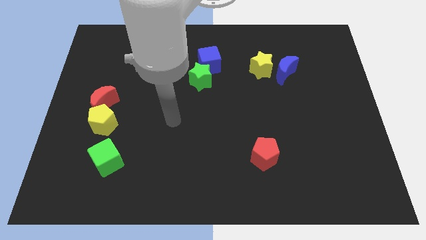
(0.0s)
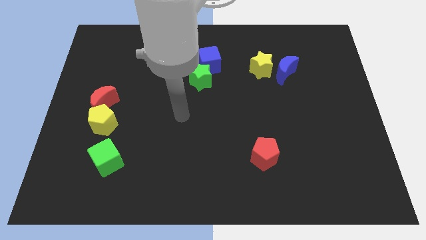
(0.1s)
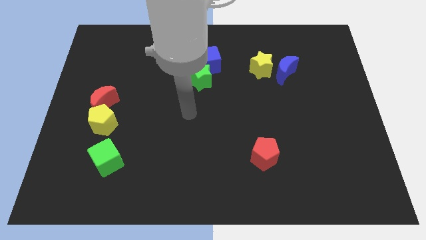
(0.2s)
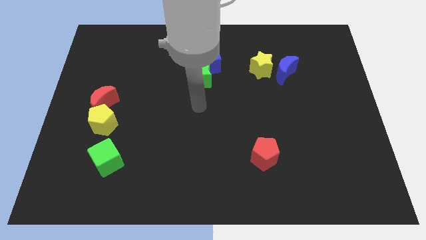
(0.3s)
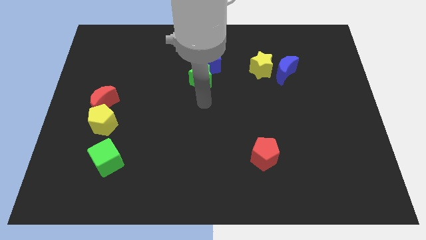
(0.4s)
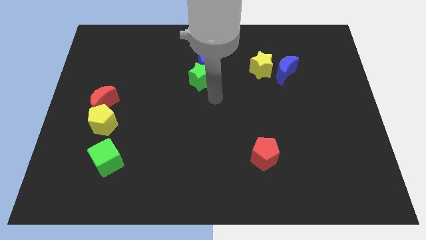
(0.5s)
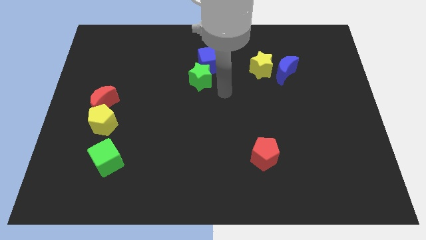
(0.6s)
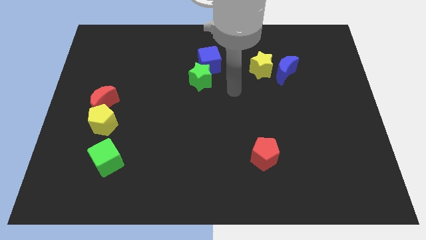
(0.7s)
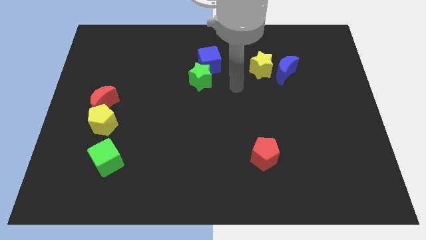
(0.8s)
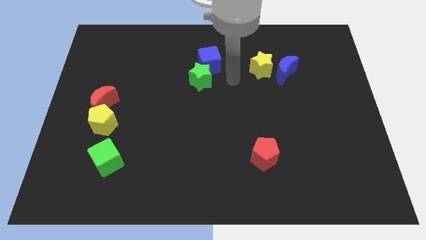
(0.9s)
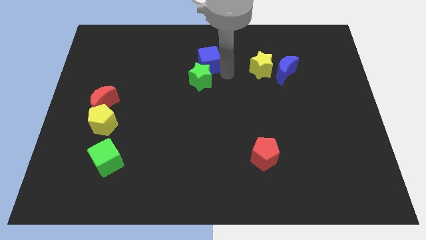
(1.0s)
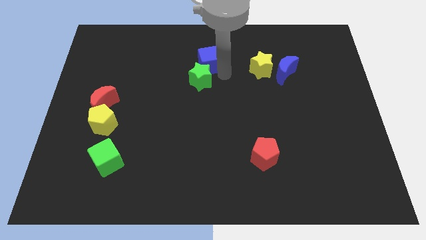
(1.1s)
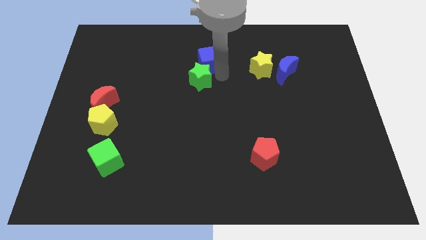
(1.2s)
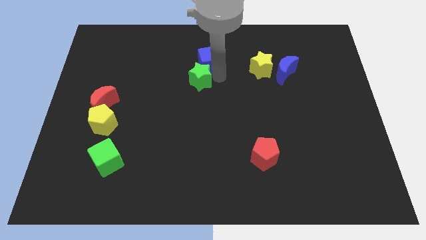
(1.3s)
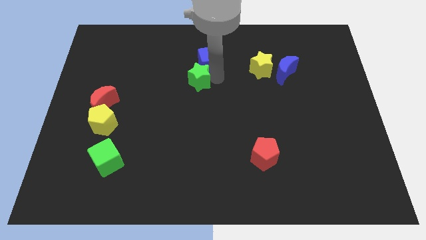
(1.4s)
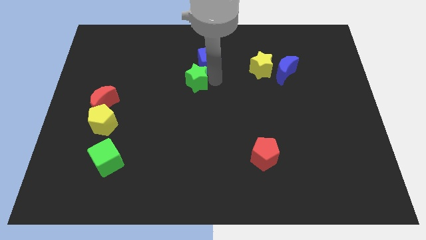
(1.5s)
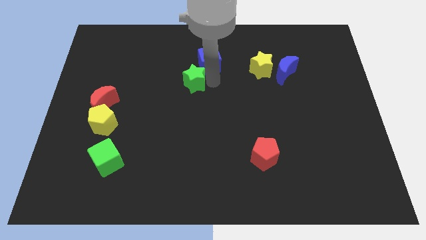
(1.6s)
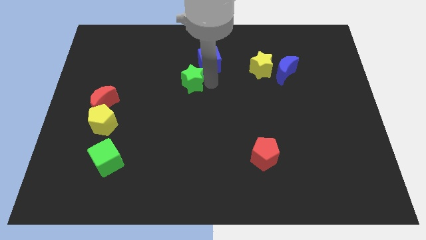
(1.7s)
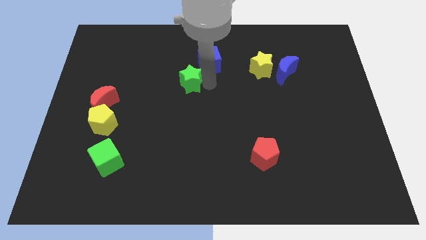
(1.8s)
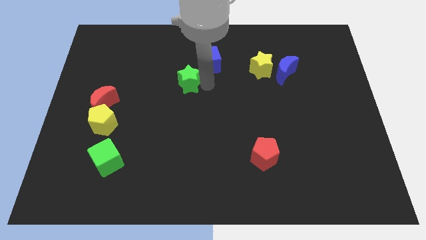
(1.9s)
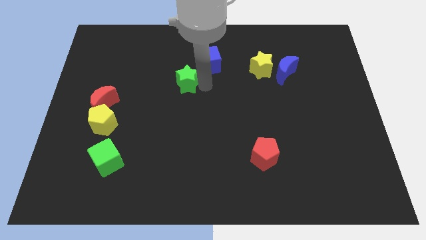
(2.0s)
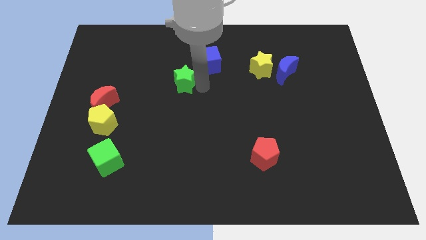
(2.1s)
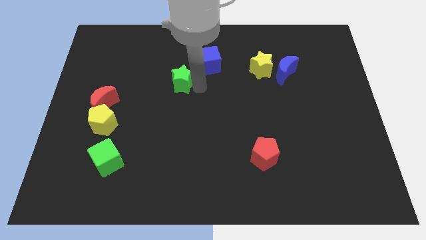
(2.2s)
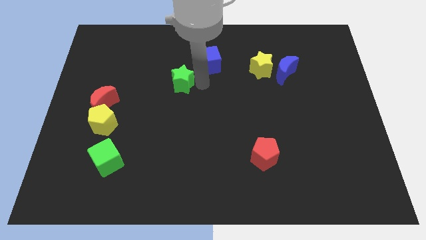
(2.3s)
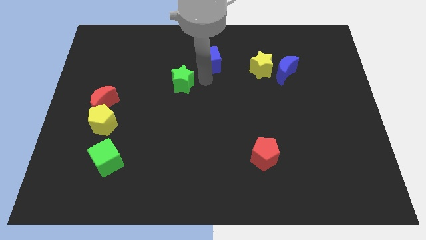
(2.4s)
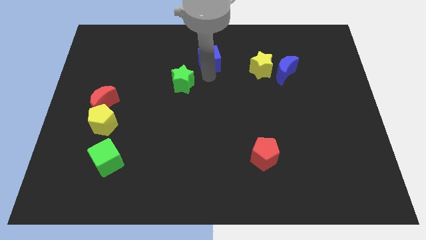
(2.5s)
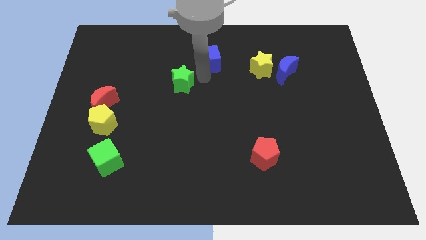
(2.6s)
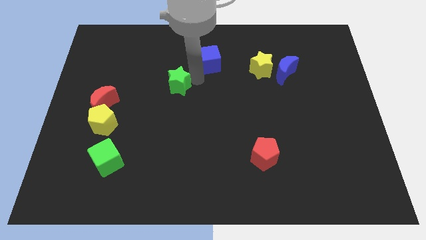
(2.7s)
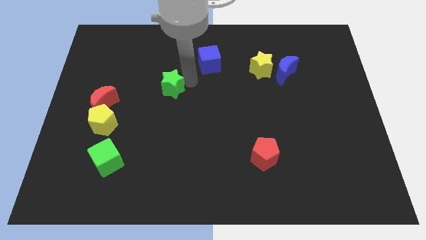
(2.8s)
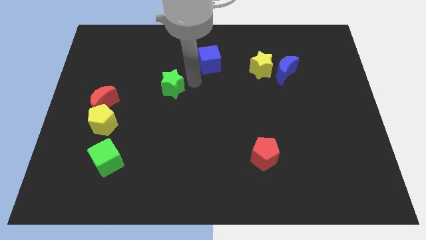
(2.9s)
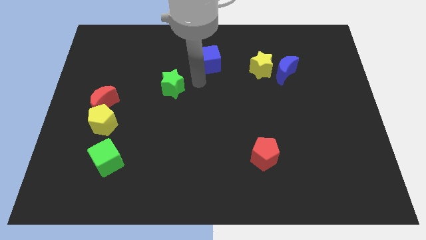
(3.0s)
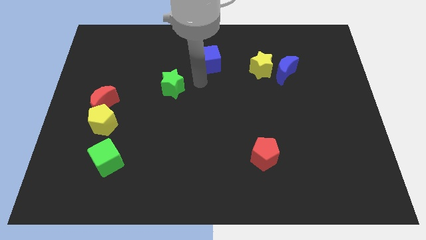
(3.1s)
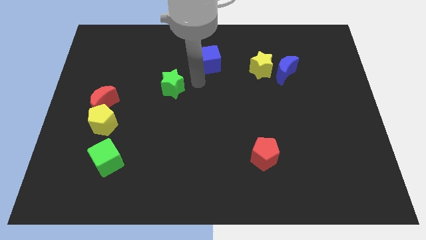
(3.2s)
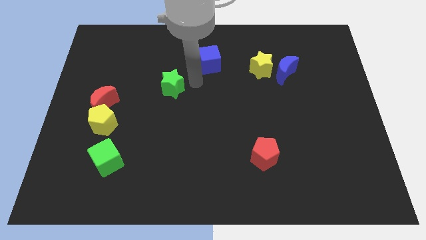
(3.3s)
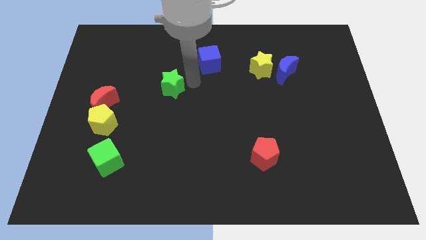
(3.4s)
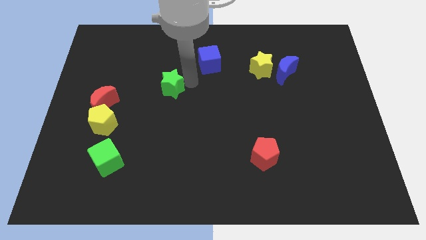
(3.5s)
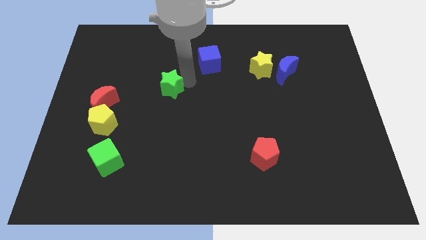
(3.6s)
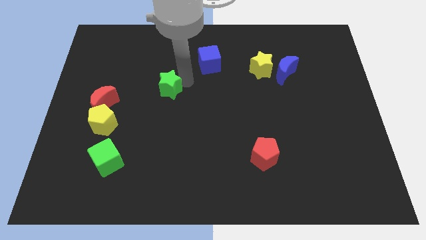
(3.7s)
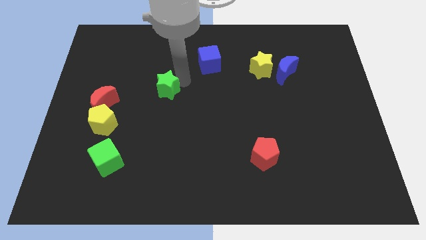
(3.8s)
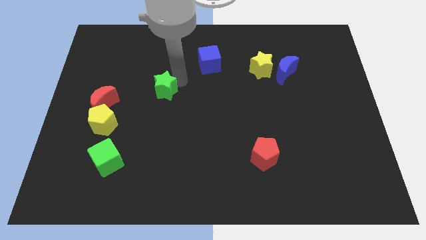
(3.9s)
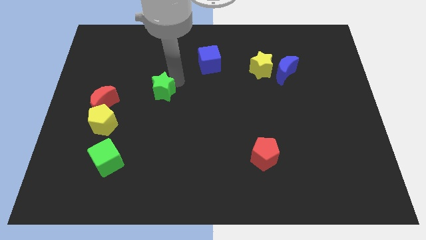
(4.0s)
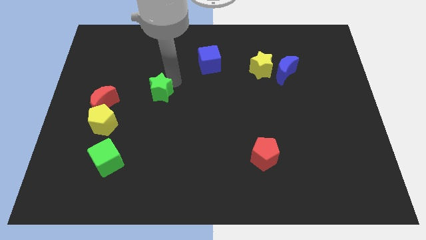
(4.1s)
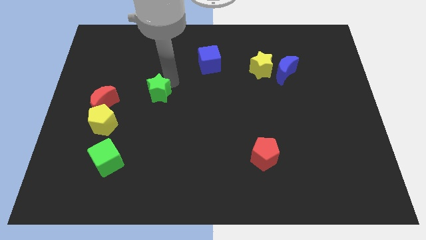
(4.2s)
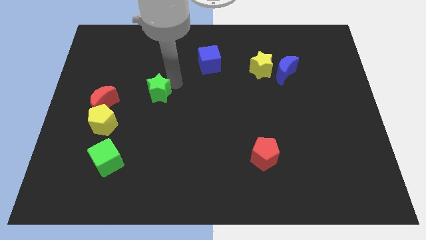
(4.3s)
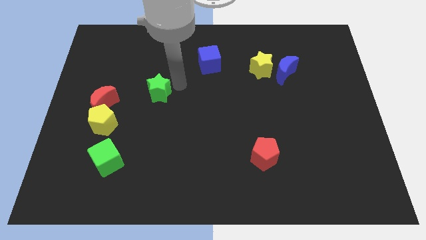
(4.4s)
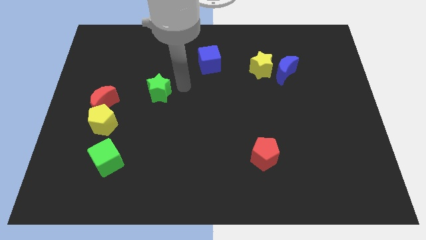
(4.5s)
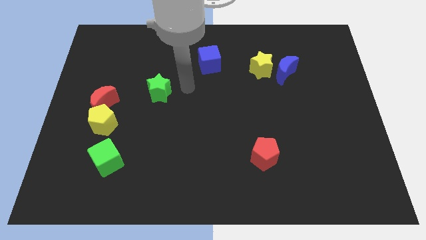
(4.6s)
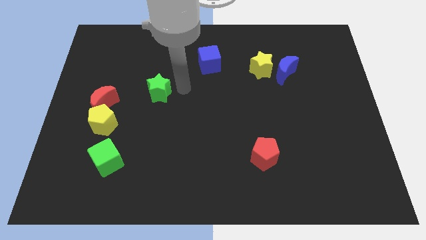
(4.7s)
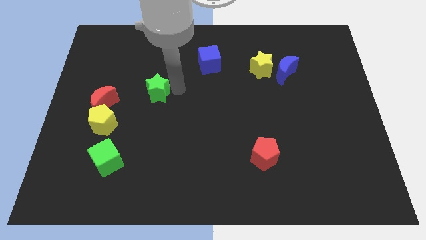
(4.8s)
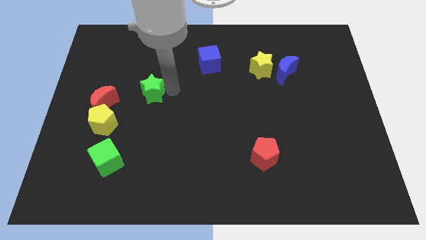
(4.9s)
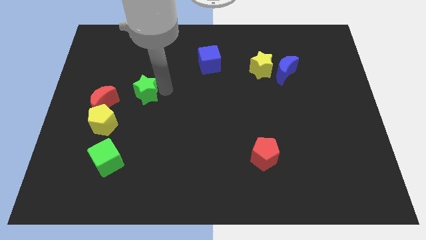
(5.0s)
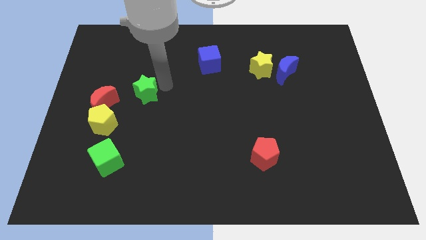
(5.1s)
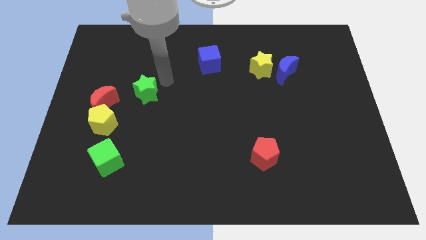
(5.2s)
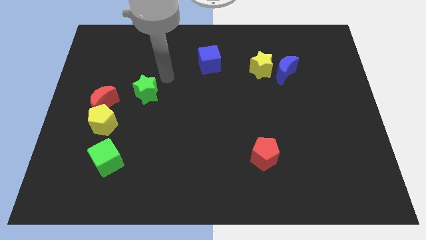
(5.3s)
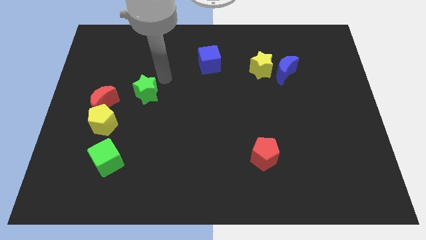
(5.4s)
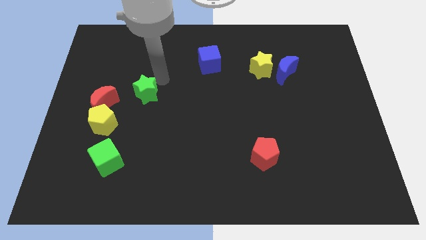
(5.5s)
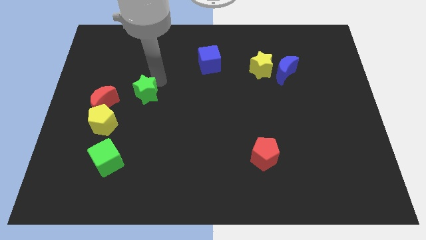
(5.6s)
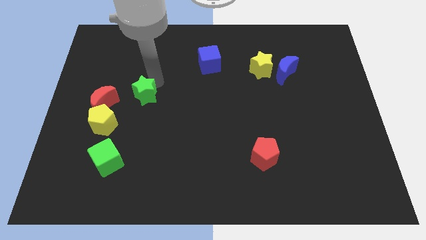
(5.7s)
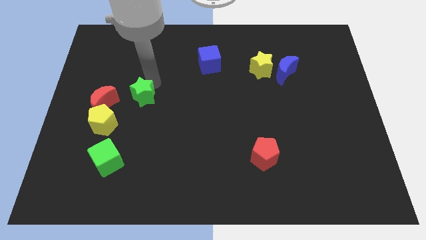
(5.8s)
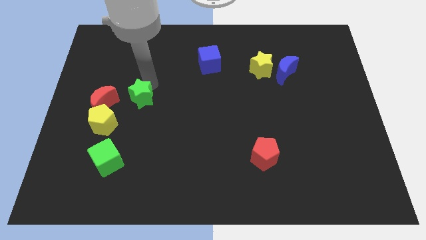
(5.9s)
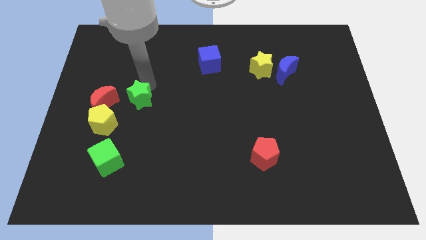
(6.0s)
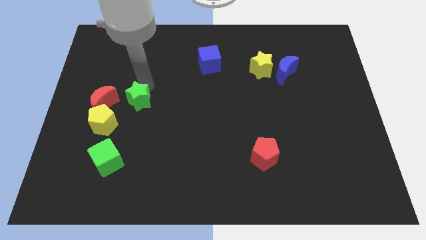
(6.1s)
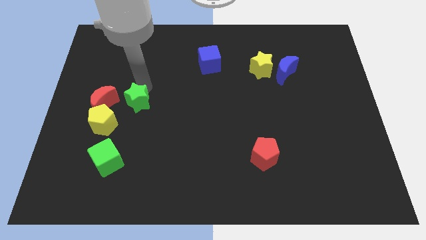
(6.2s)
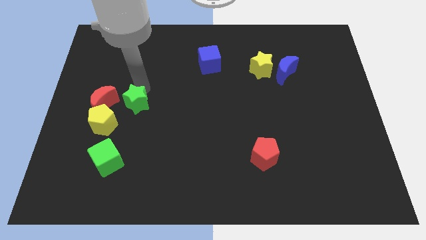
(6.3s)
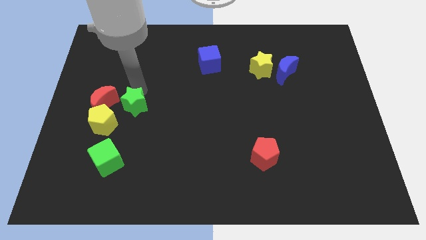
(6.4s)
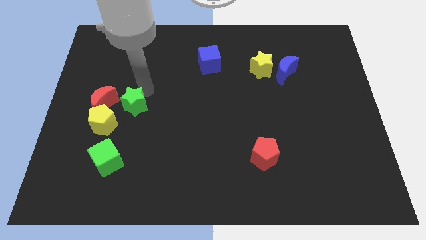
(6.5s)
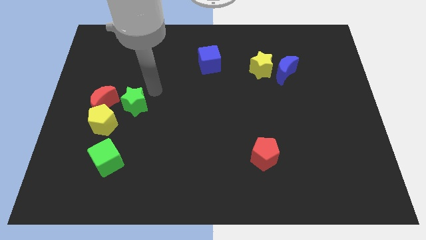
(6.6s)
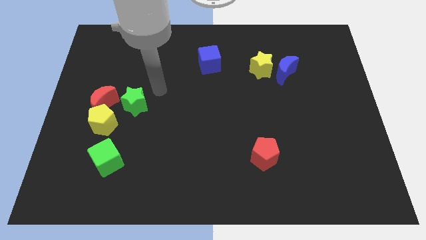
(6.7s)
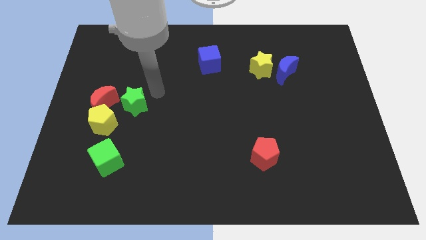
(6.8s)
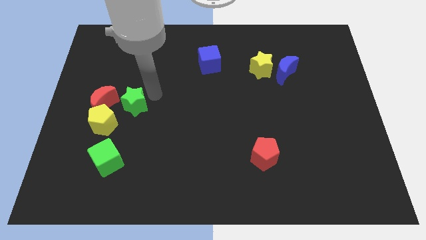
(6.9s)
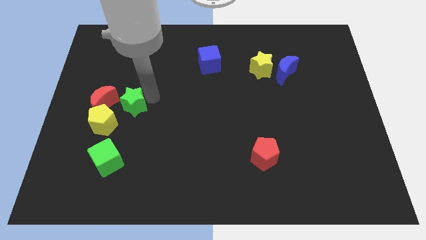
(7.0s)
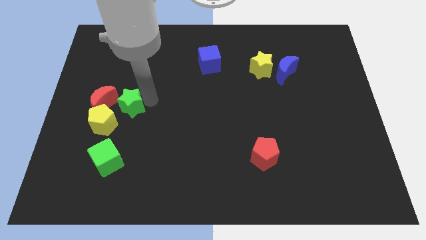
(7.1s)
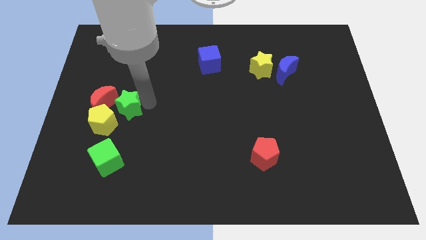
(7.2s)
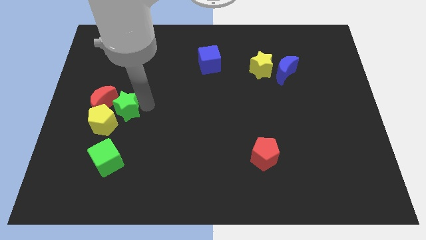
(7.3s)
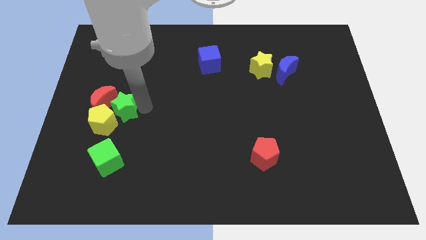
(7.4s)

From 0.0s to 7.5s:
move the green star to the yellow pentagon
